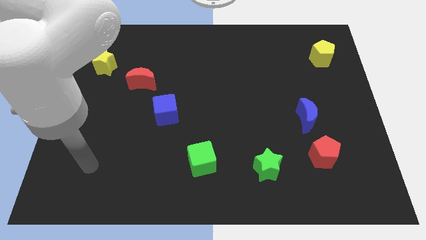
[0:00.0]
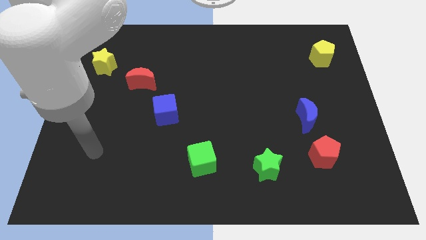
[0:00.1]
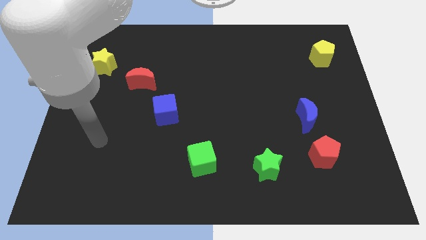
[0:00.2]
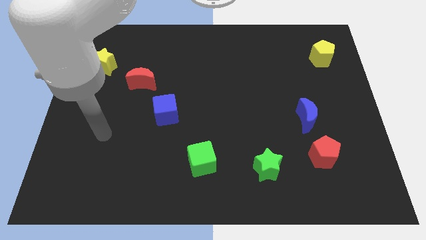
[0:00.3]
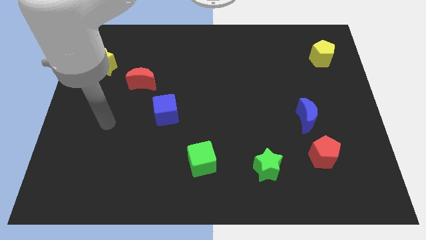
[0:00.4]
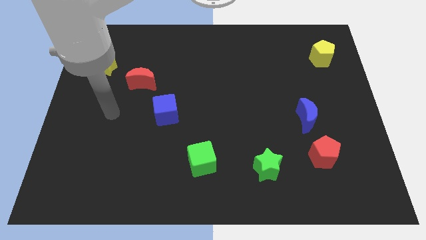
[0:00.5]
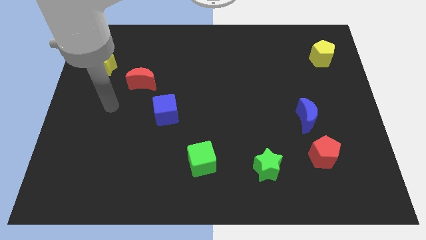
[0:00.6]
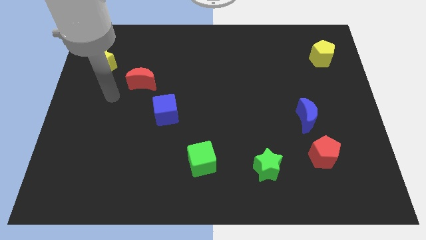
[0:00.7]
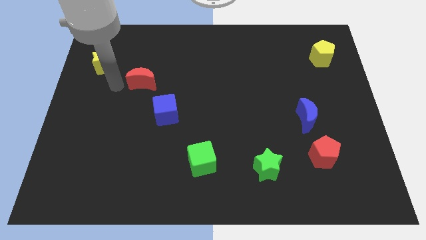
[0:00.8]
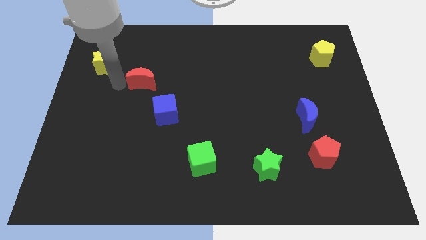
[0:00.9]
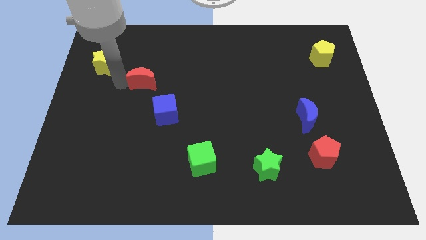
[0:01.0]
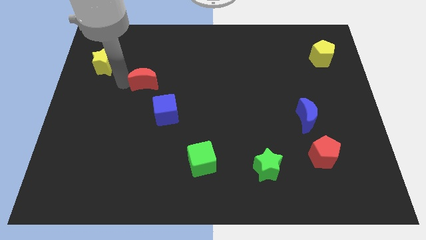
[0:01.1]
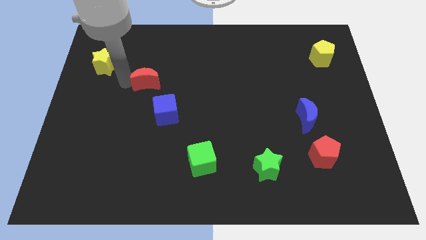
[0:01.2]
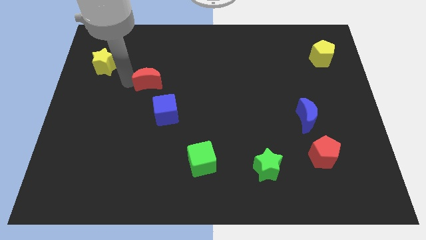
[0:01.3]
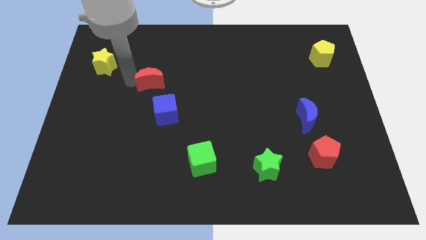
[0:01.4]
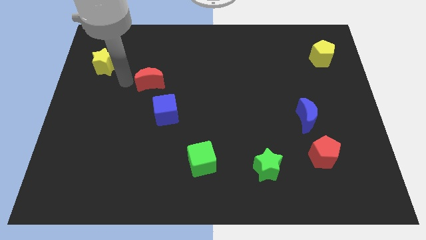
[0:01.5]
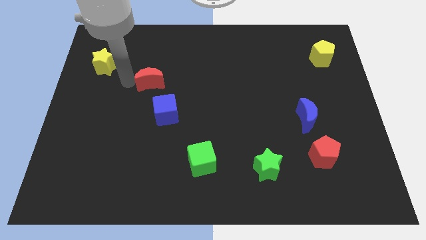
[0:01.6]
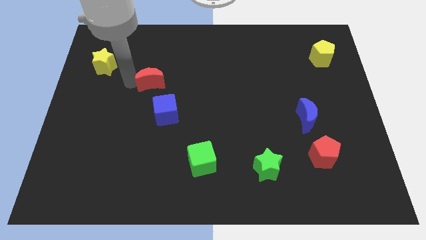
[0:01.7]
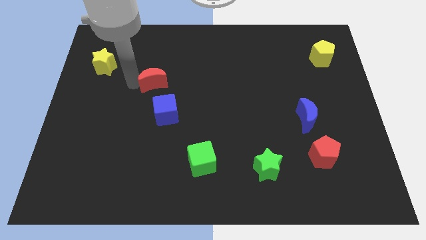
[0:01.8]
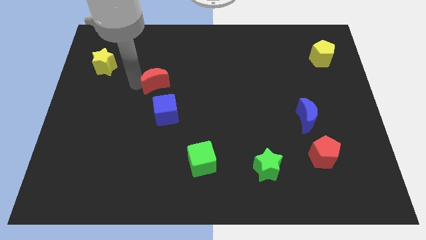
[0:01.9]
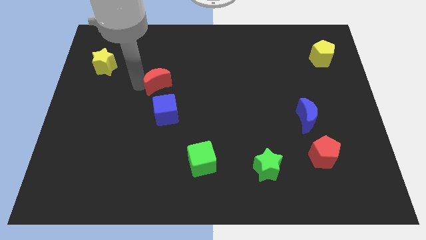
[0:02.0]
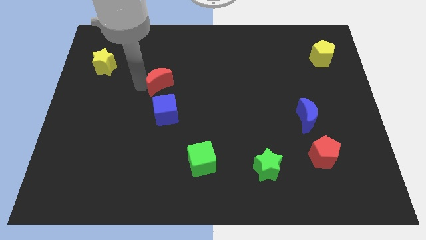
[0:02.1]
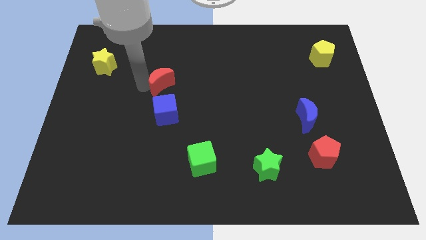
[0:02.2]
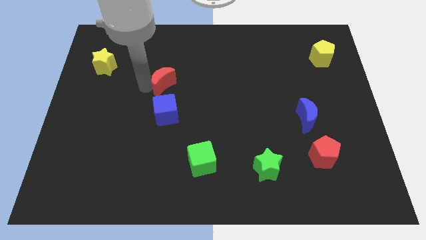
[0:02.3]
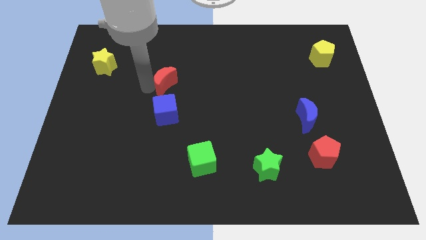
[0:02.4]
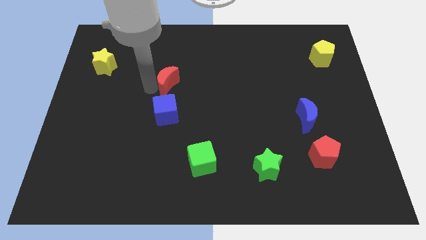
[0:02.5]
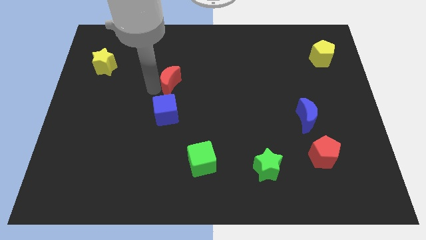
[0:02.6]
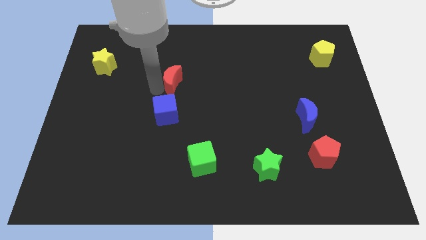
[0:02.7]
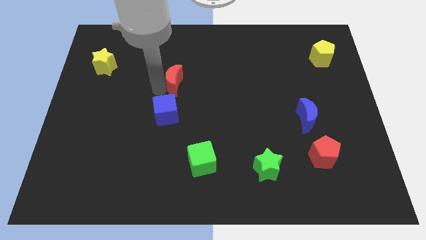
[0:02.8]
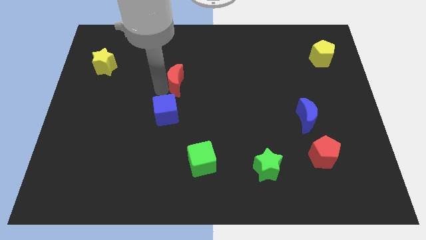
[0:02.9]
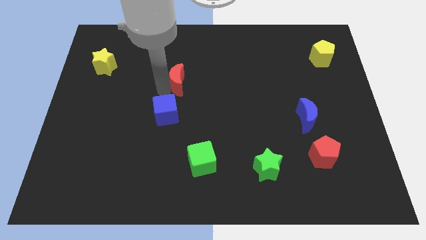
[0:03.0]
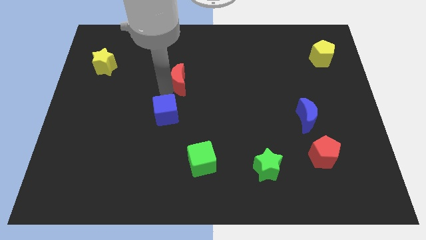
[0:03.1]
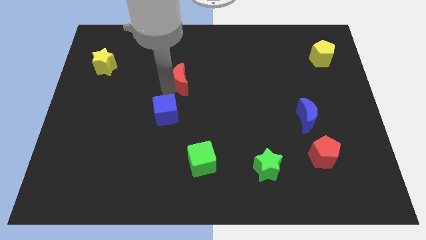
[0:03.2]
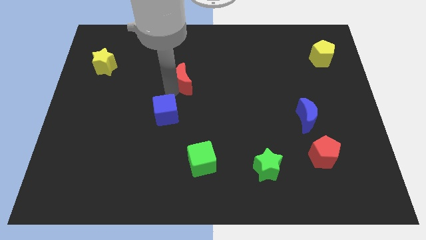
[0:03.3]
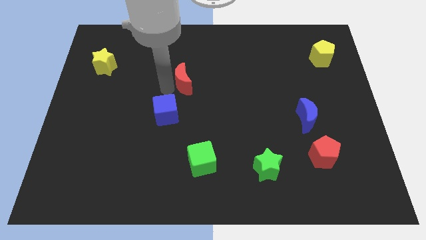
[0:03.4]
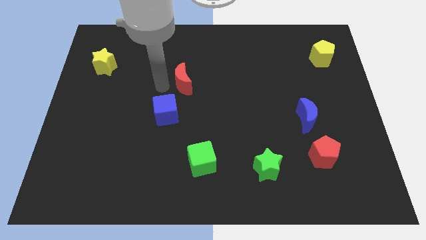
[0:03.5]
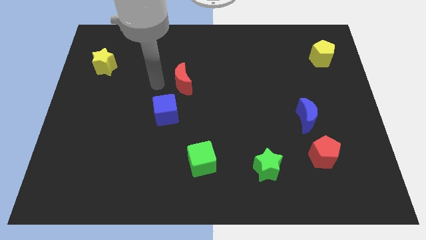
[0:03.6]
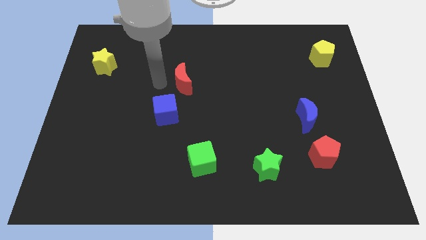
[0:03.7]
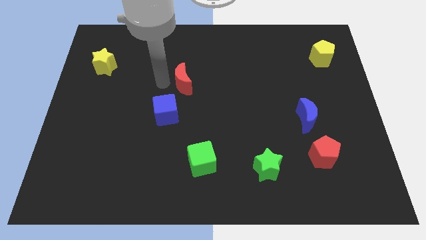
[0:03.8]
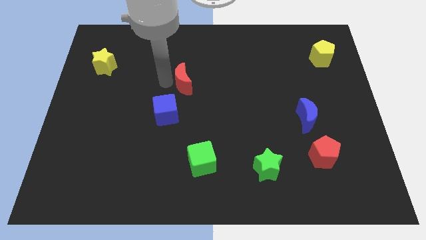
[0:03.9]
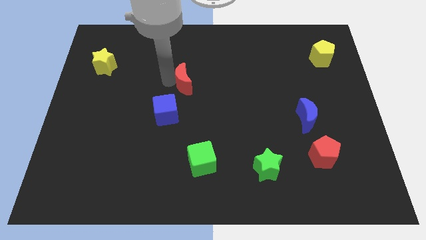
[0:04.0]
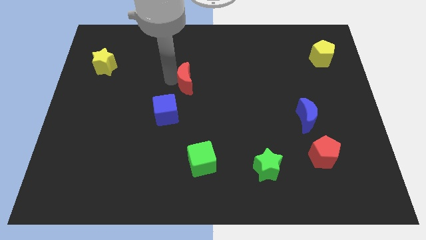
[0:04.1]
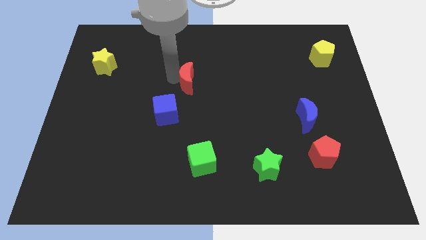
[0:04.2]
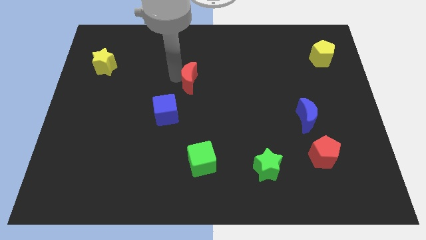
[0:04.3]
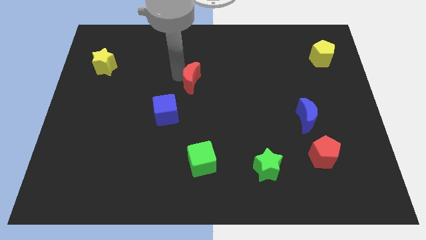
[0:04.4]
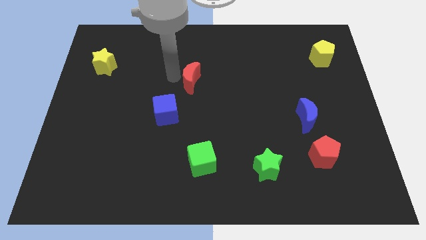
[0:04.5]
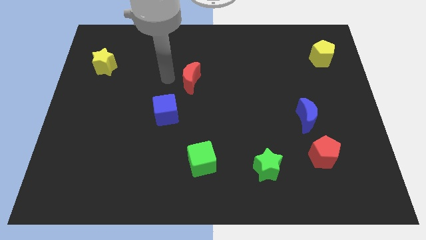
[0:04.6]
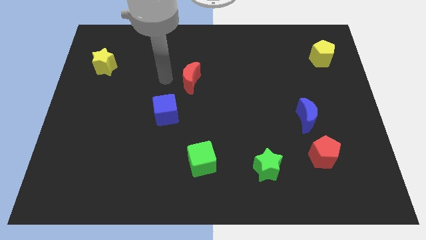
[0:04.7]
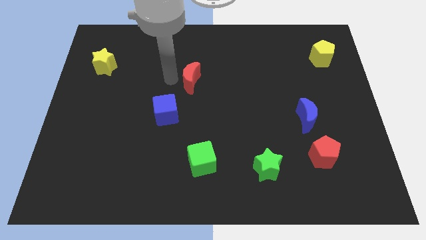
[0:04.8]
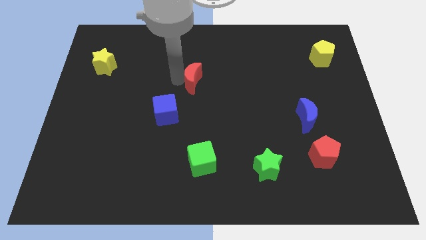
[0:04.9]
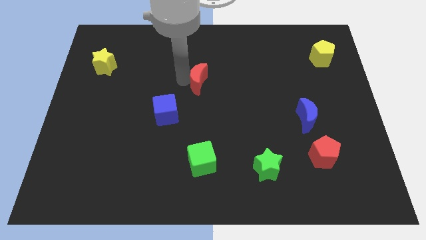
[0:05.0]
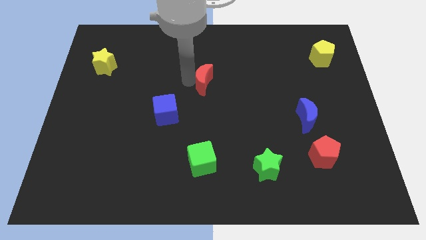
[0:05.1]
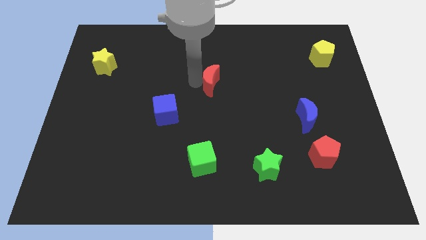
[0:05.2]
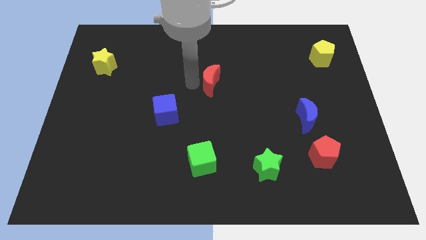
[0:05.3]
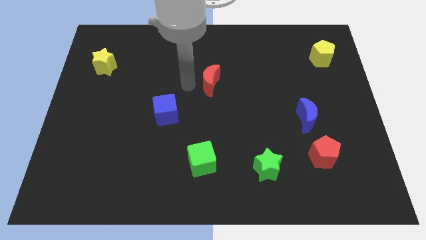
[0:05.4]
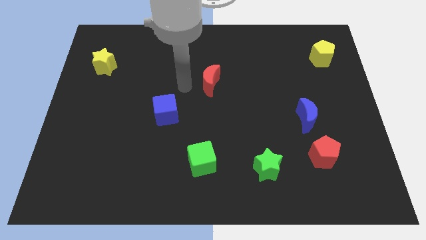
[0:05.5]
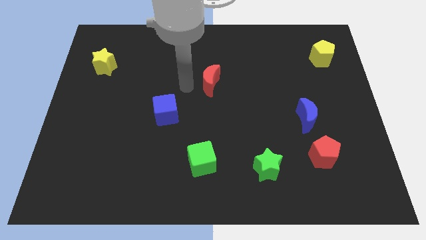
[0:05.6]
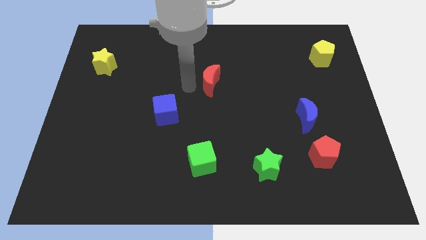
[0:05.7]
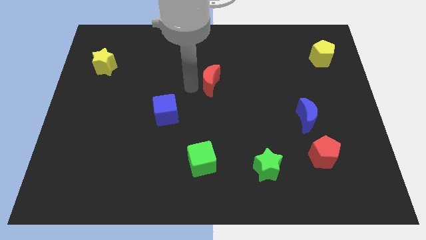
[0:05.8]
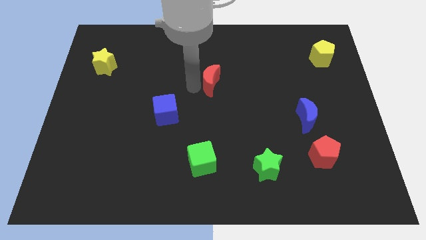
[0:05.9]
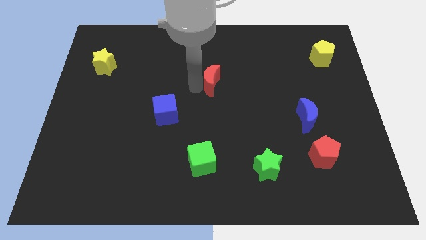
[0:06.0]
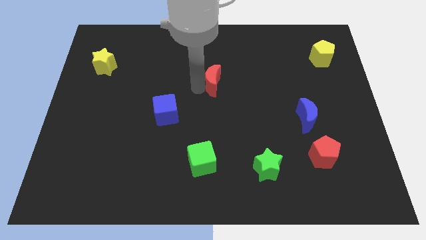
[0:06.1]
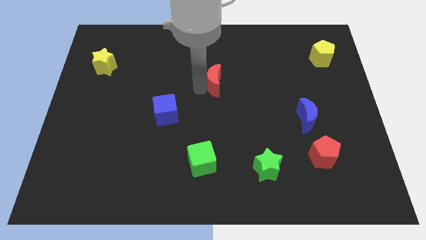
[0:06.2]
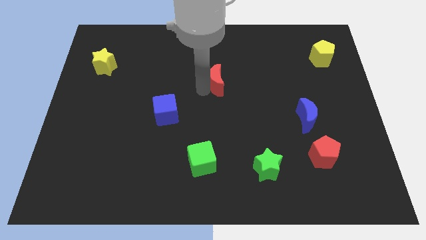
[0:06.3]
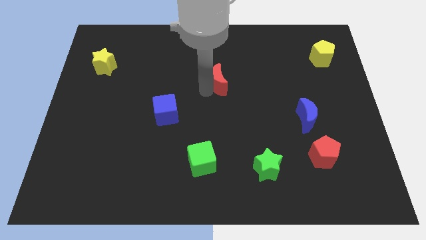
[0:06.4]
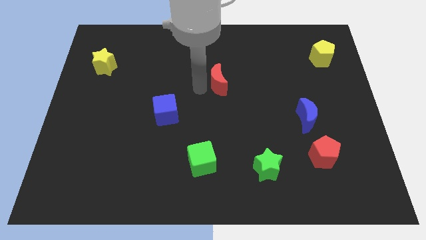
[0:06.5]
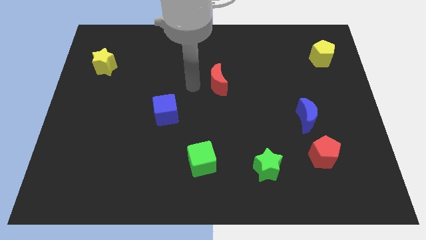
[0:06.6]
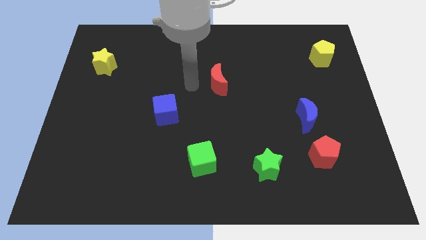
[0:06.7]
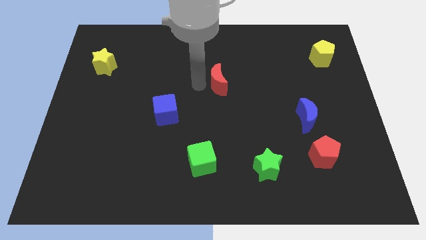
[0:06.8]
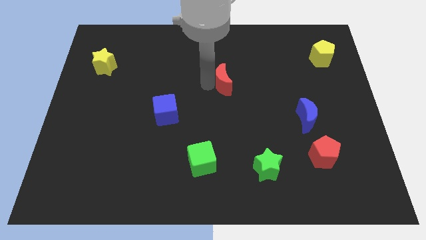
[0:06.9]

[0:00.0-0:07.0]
move the red moon to the right

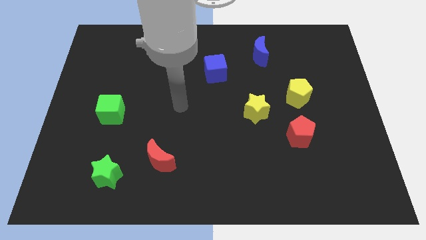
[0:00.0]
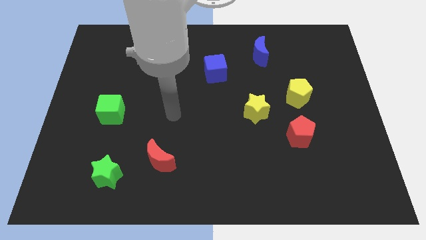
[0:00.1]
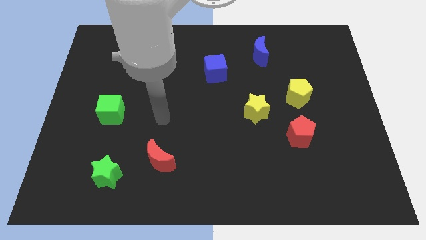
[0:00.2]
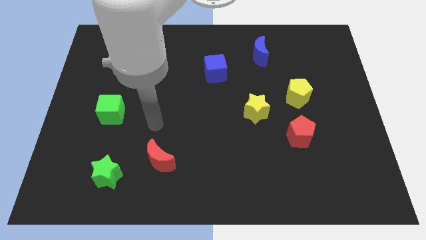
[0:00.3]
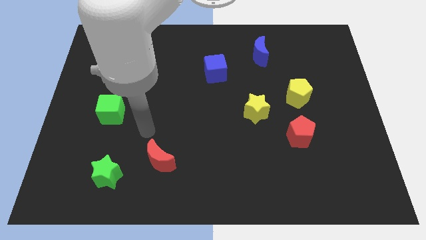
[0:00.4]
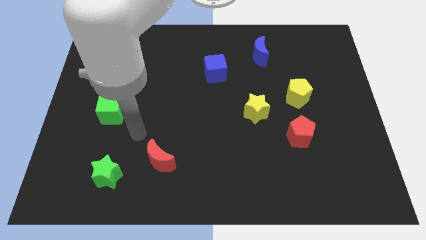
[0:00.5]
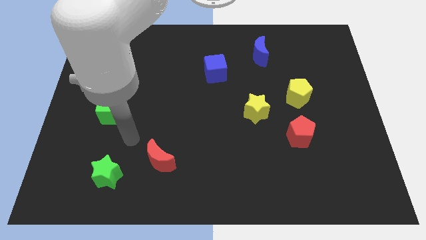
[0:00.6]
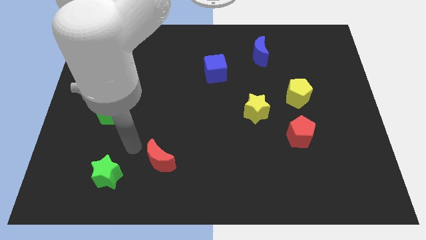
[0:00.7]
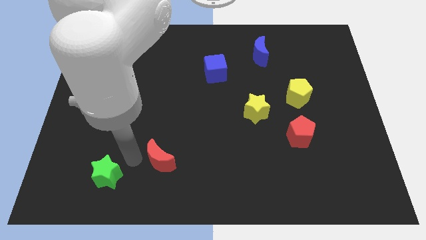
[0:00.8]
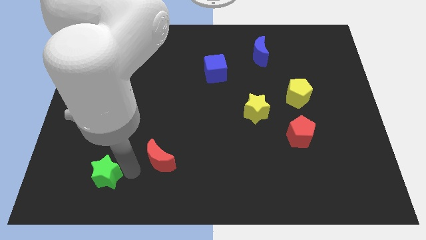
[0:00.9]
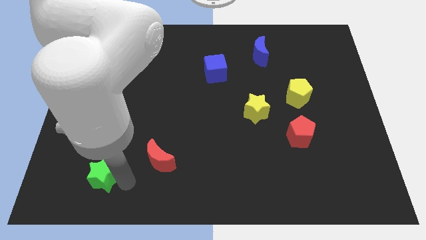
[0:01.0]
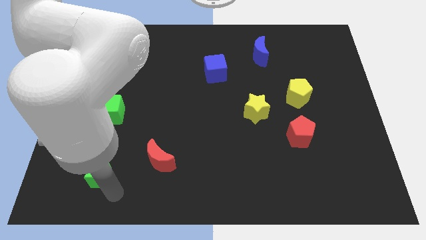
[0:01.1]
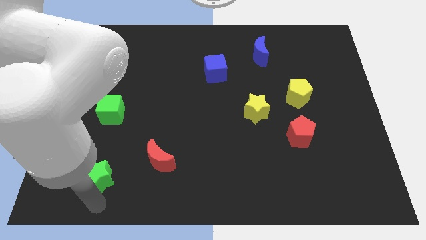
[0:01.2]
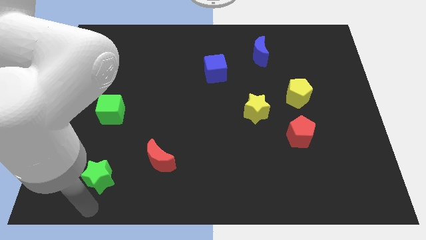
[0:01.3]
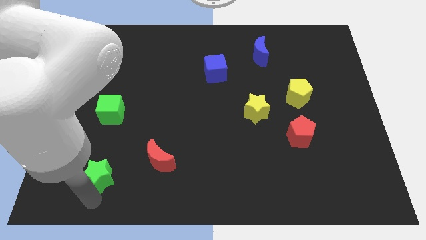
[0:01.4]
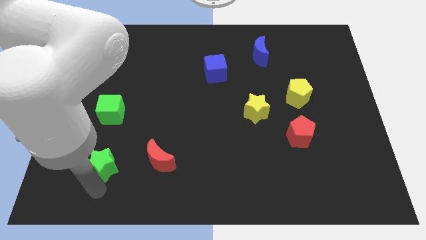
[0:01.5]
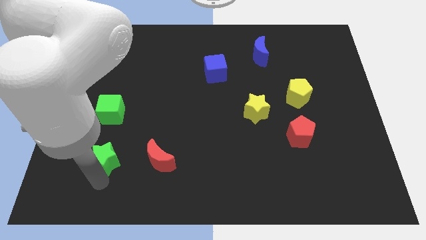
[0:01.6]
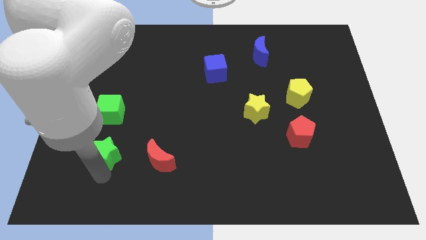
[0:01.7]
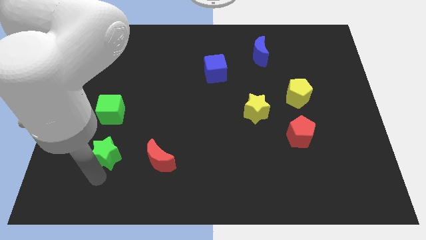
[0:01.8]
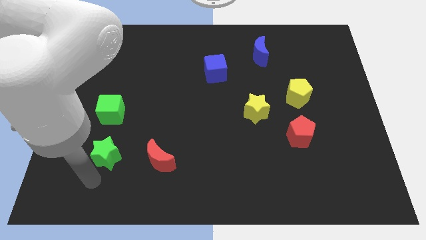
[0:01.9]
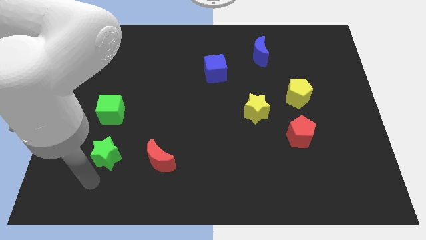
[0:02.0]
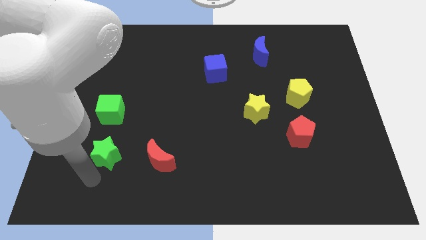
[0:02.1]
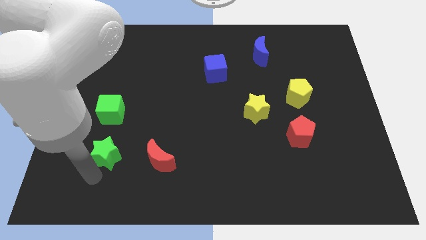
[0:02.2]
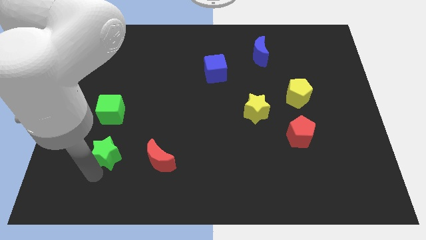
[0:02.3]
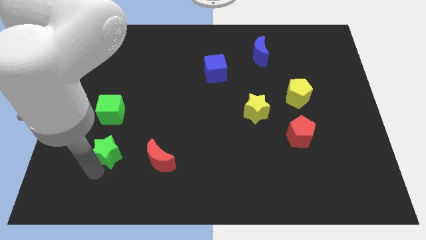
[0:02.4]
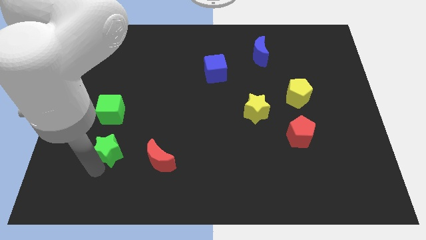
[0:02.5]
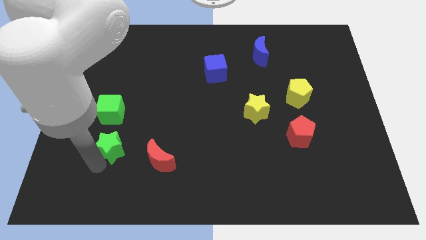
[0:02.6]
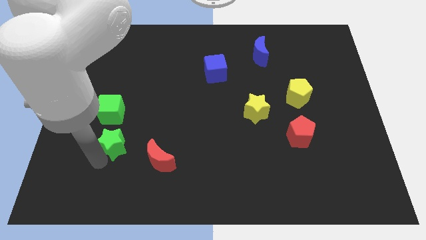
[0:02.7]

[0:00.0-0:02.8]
slightly push the green star up
